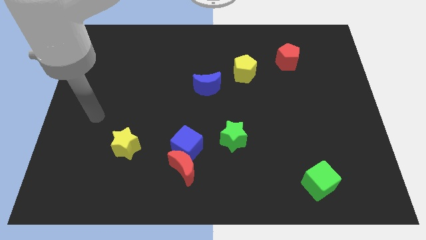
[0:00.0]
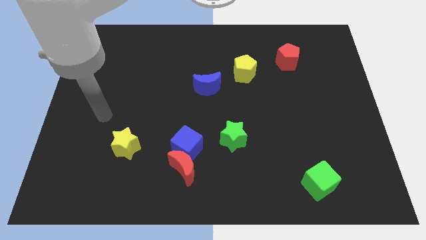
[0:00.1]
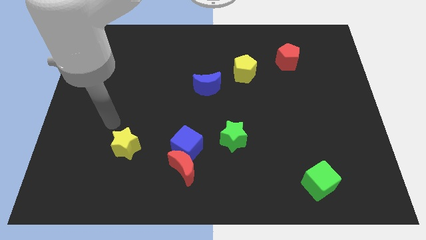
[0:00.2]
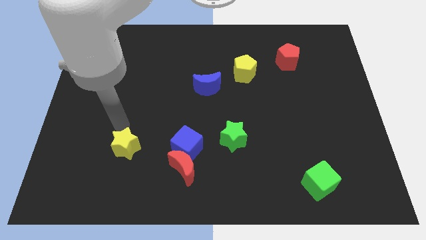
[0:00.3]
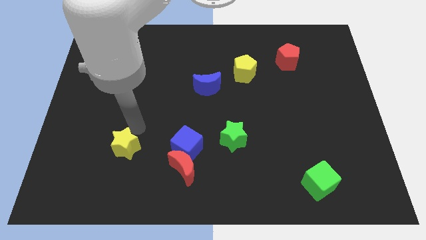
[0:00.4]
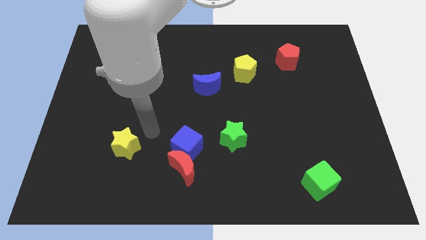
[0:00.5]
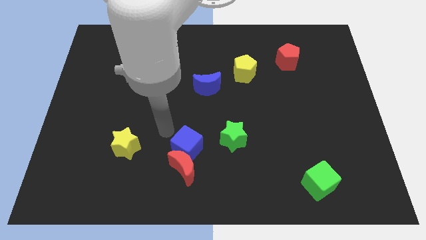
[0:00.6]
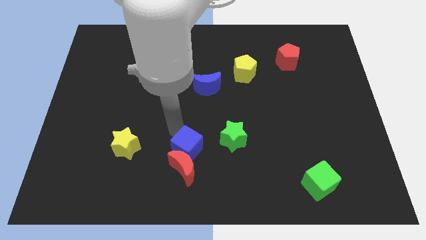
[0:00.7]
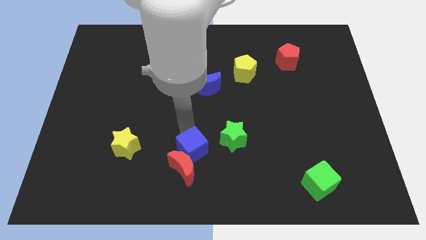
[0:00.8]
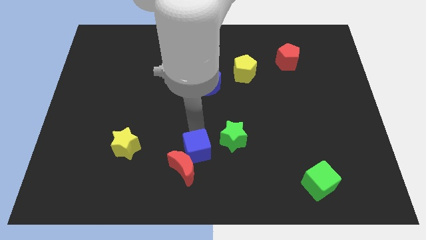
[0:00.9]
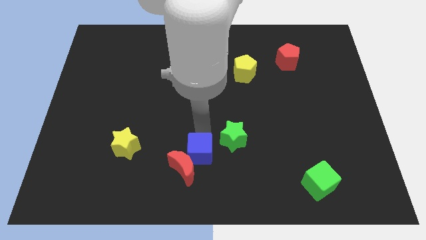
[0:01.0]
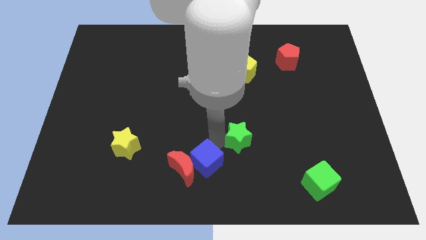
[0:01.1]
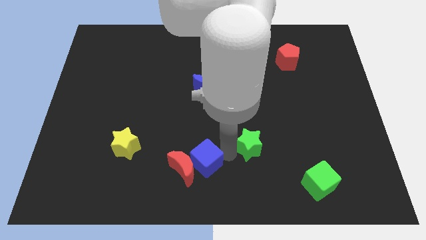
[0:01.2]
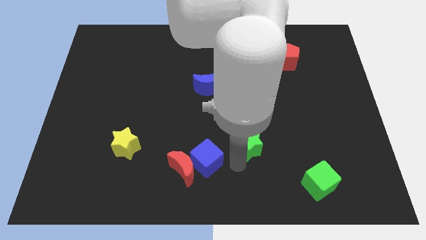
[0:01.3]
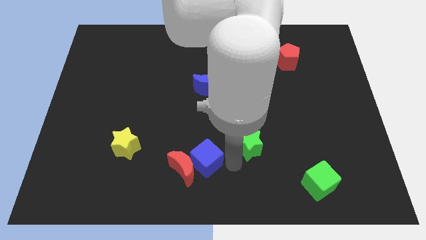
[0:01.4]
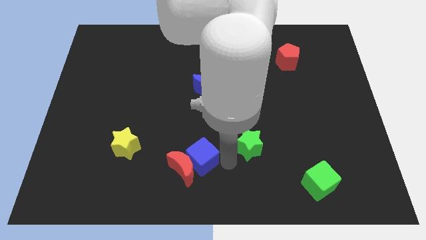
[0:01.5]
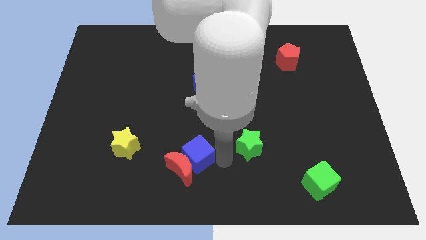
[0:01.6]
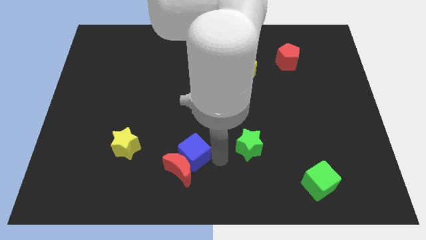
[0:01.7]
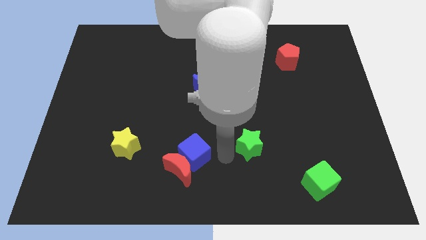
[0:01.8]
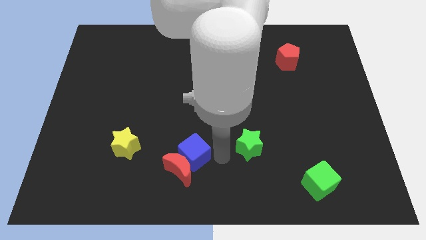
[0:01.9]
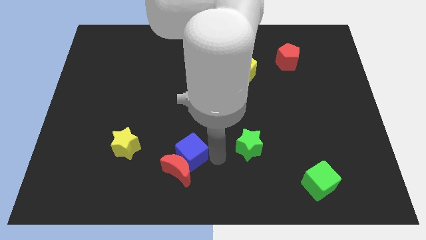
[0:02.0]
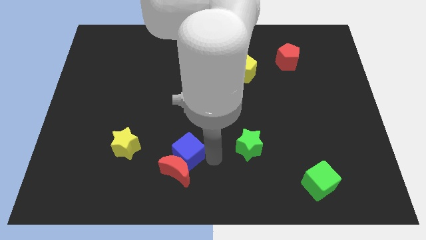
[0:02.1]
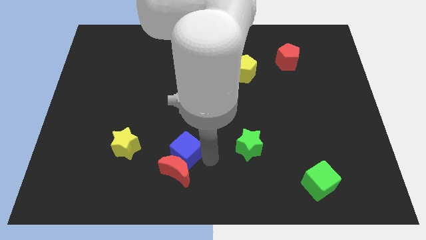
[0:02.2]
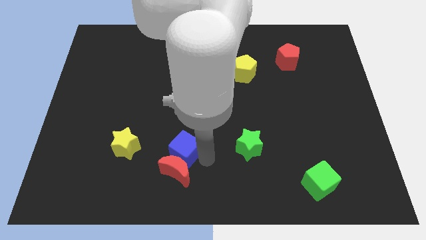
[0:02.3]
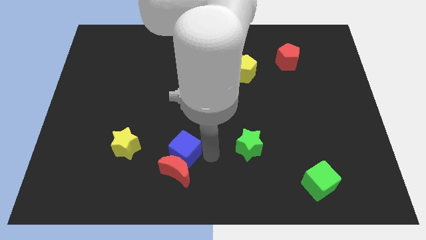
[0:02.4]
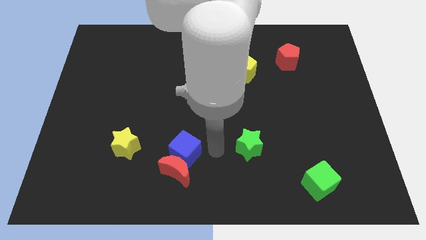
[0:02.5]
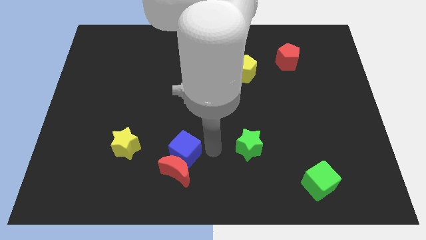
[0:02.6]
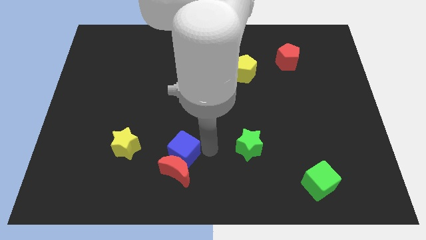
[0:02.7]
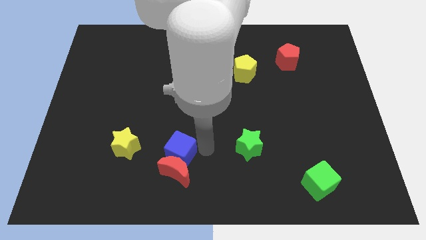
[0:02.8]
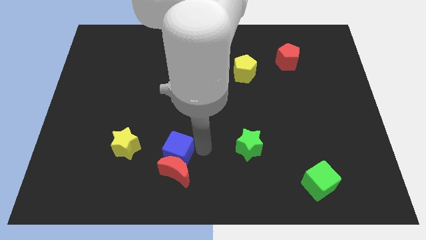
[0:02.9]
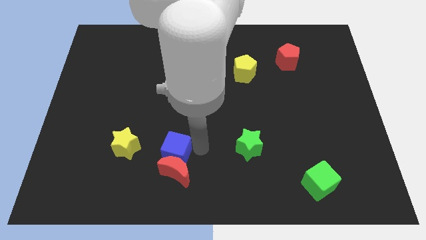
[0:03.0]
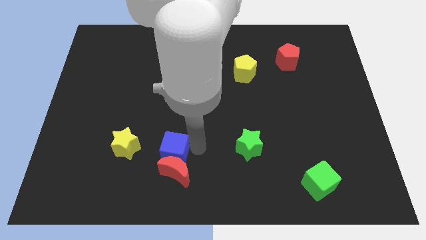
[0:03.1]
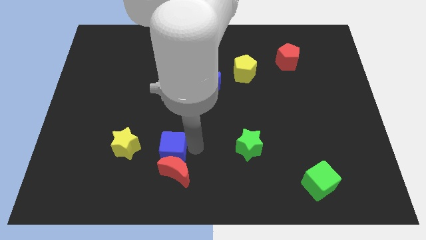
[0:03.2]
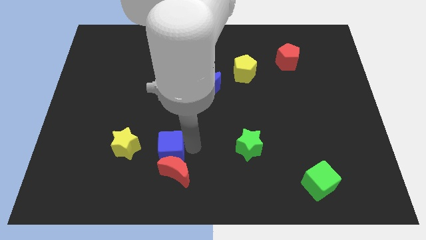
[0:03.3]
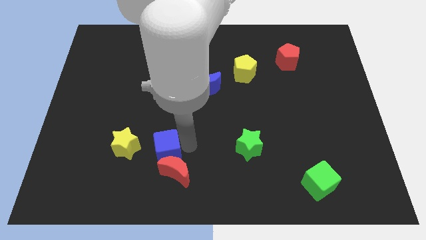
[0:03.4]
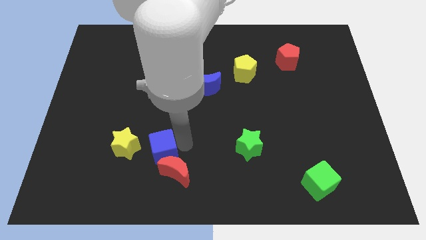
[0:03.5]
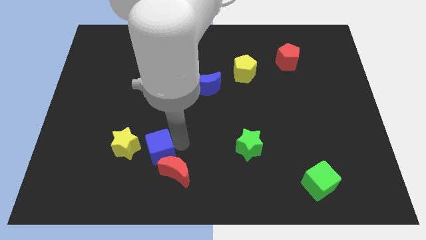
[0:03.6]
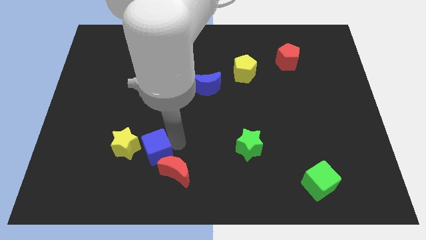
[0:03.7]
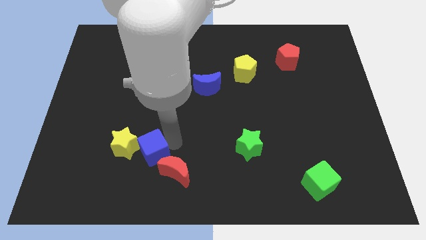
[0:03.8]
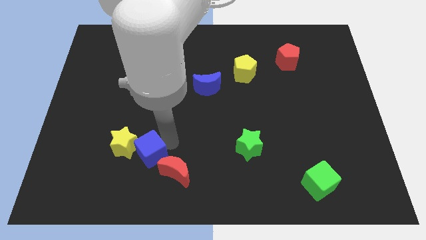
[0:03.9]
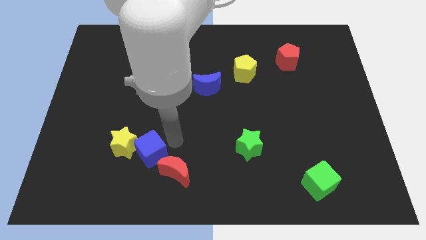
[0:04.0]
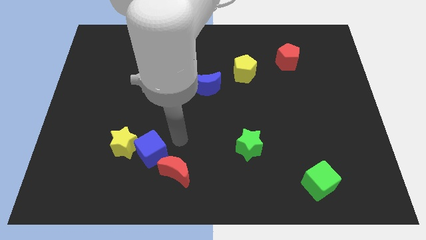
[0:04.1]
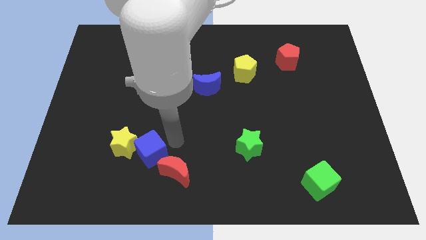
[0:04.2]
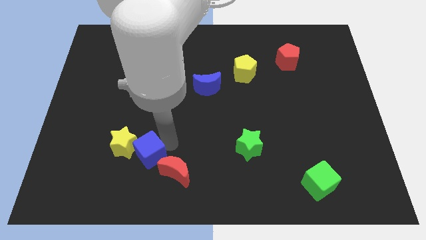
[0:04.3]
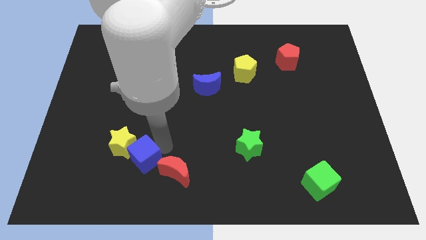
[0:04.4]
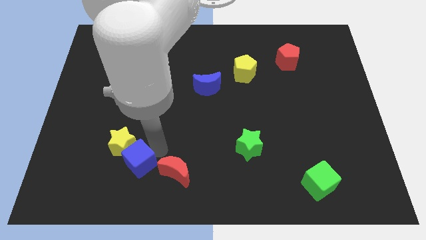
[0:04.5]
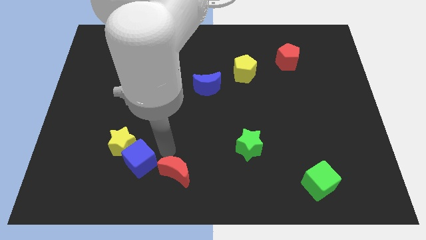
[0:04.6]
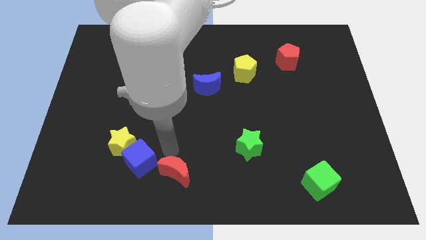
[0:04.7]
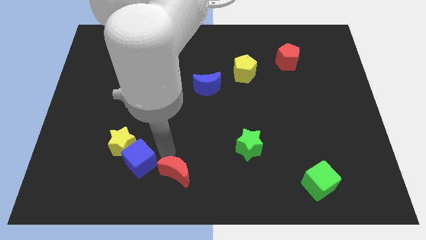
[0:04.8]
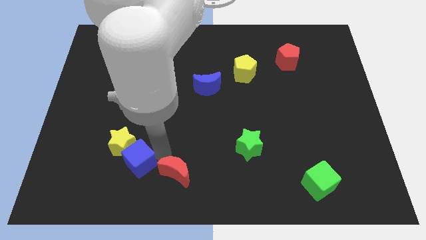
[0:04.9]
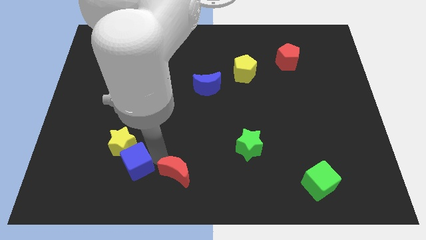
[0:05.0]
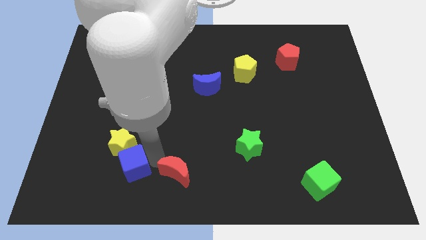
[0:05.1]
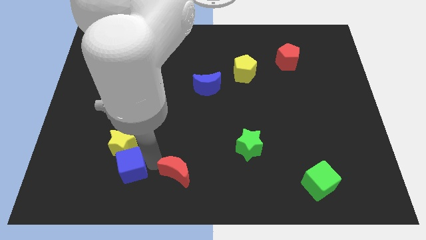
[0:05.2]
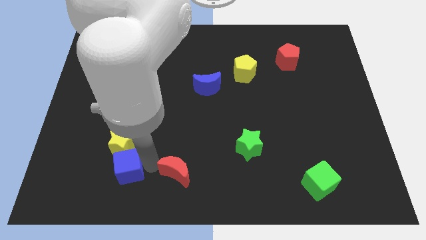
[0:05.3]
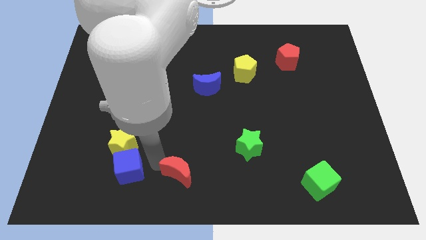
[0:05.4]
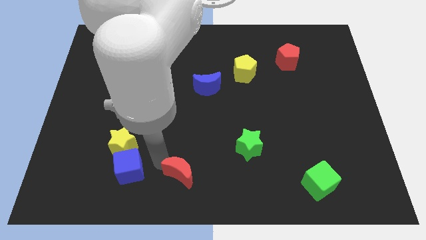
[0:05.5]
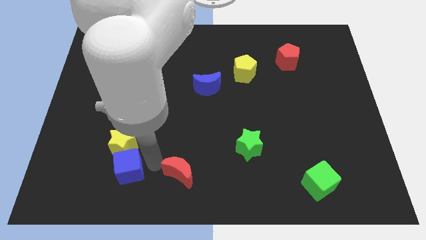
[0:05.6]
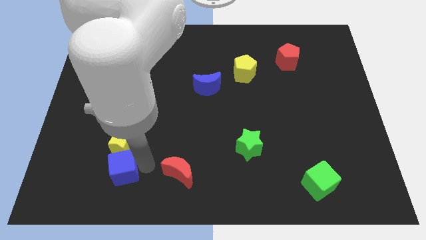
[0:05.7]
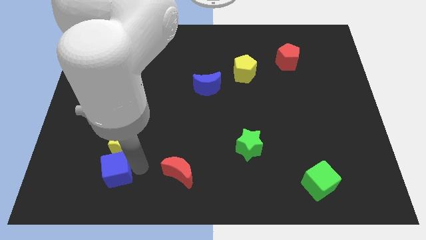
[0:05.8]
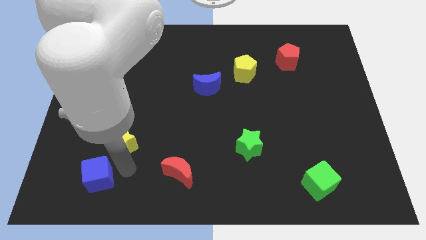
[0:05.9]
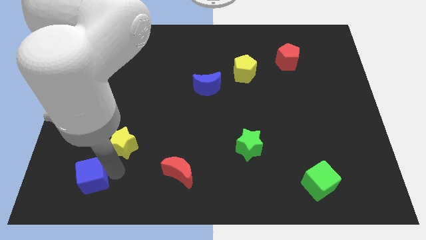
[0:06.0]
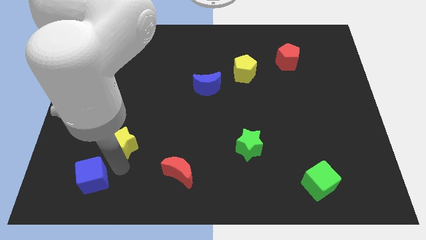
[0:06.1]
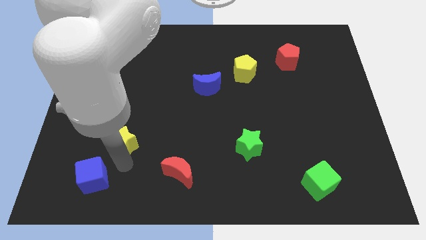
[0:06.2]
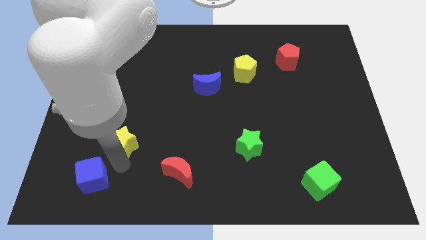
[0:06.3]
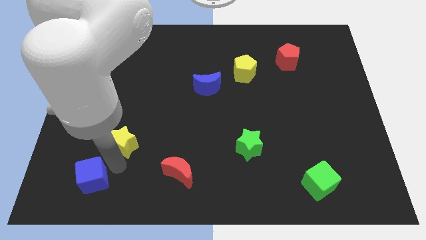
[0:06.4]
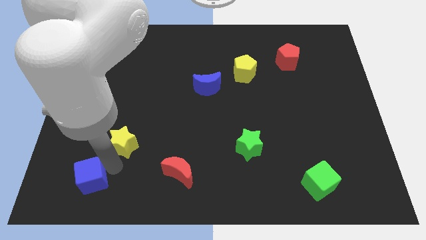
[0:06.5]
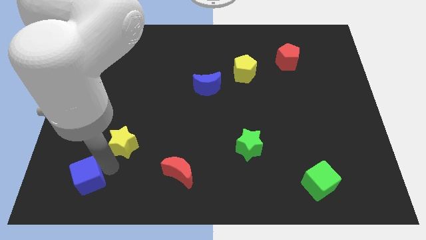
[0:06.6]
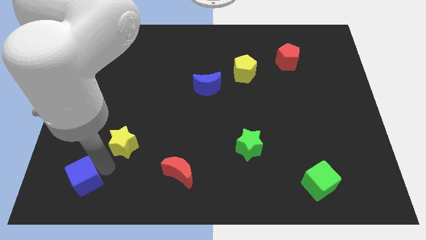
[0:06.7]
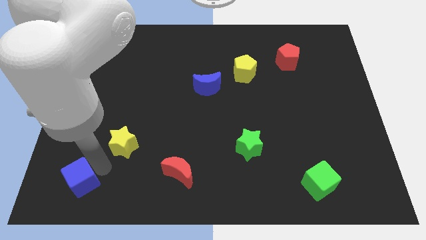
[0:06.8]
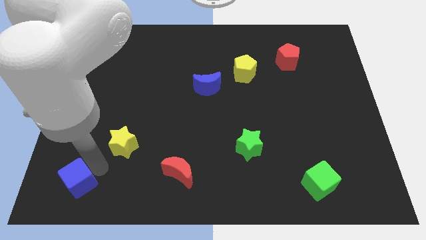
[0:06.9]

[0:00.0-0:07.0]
move the blue cube to the bottom left corner
